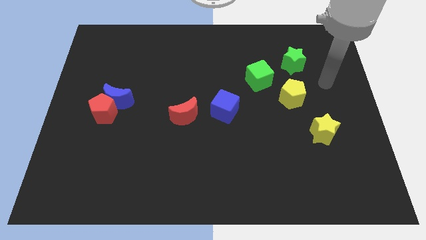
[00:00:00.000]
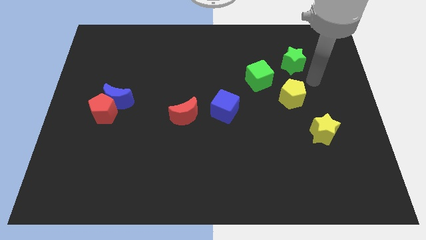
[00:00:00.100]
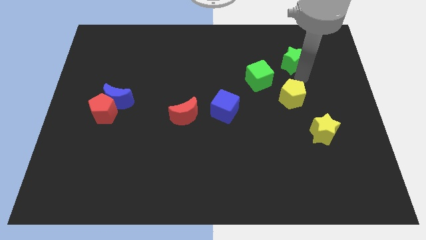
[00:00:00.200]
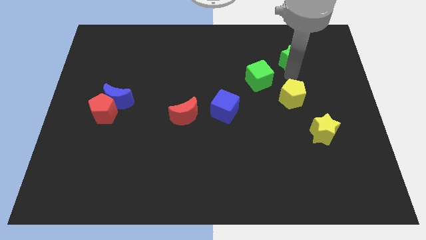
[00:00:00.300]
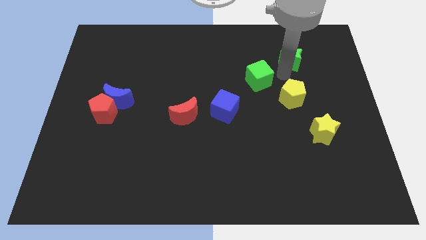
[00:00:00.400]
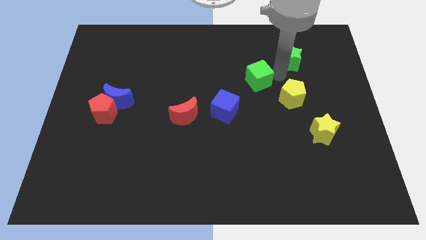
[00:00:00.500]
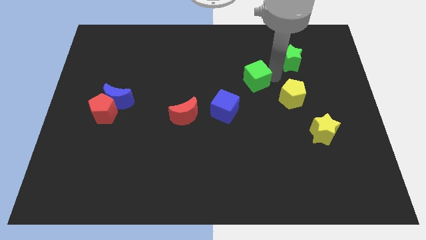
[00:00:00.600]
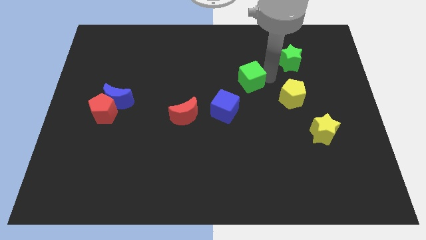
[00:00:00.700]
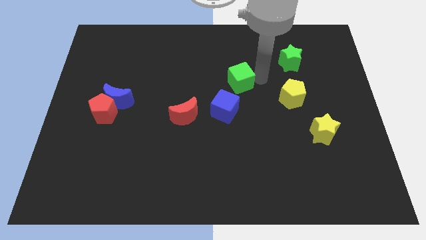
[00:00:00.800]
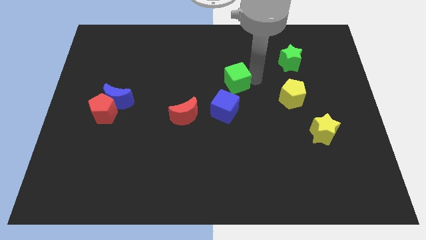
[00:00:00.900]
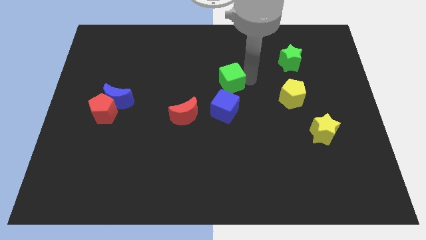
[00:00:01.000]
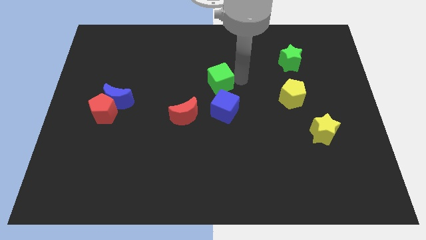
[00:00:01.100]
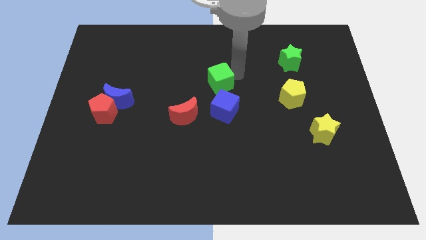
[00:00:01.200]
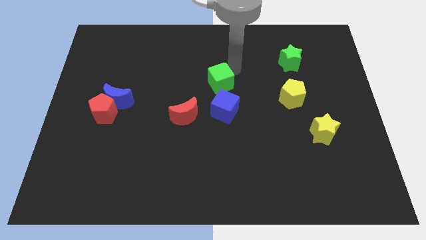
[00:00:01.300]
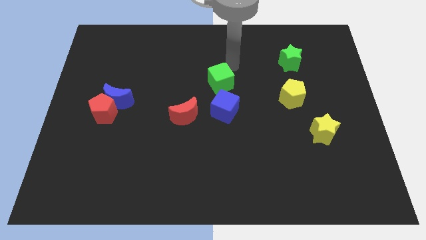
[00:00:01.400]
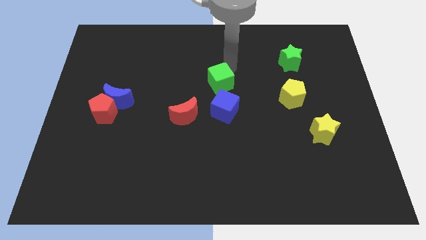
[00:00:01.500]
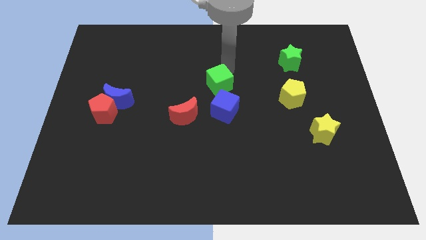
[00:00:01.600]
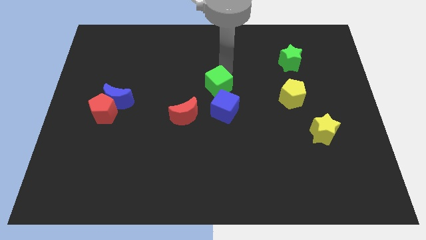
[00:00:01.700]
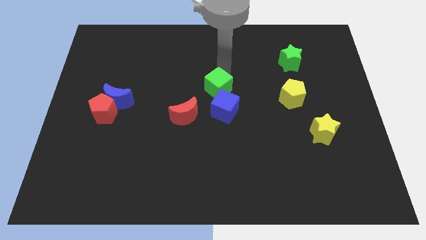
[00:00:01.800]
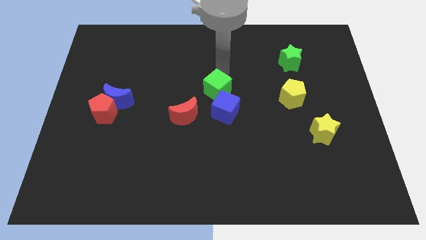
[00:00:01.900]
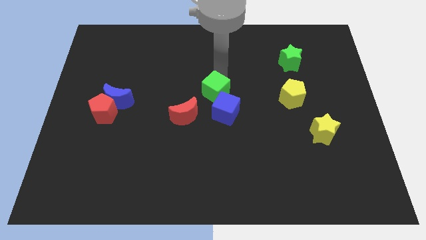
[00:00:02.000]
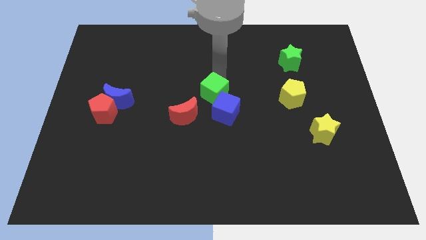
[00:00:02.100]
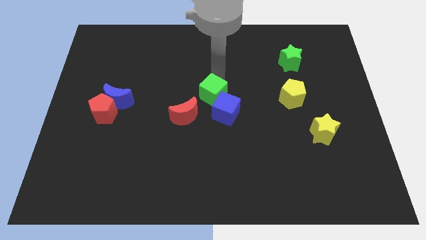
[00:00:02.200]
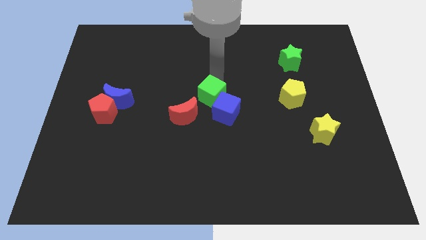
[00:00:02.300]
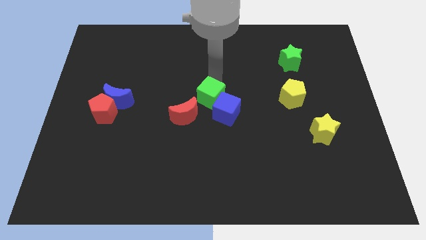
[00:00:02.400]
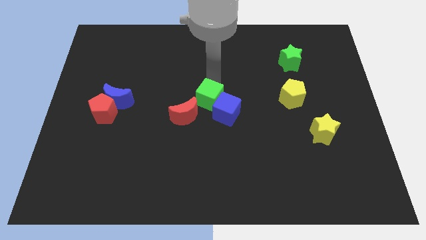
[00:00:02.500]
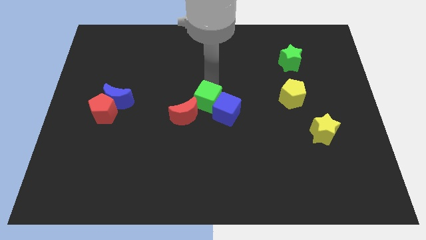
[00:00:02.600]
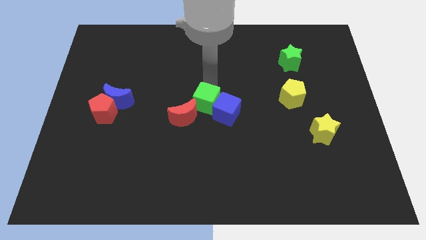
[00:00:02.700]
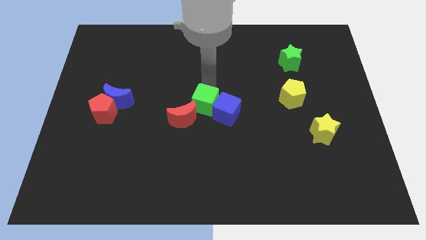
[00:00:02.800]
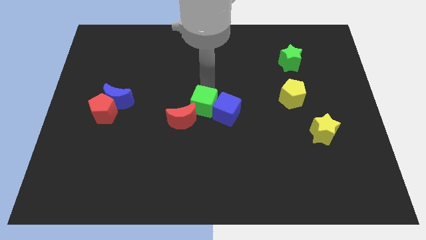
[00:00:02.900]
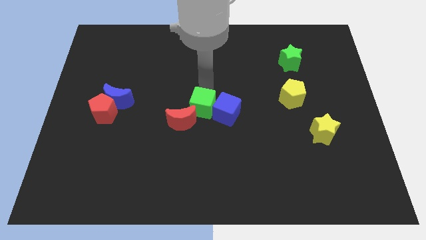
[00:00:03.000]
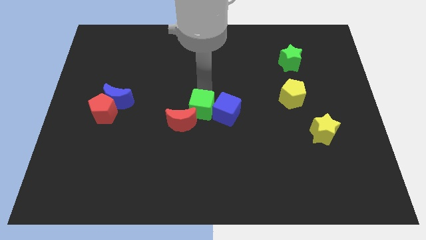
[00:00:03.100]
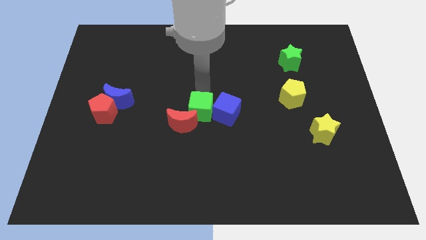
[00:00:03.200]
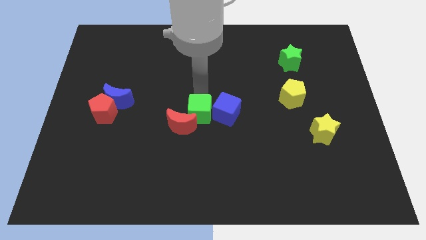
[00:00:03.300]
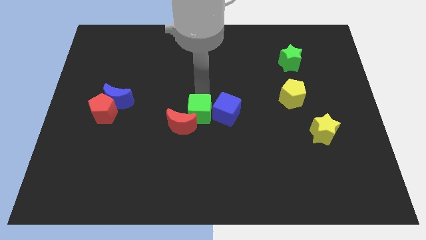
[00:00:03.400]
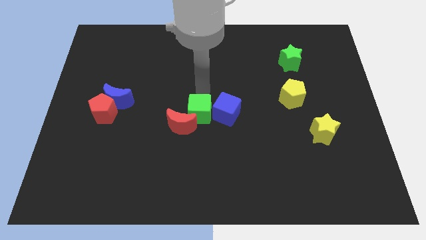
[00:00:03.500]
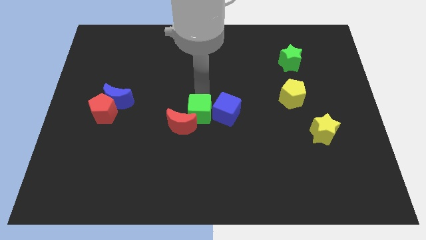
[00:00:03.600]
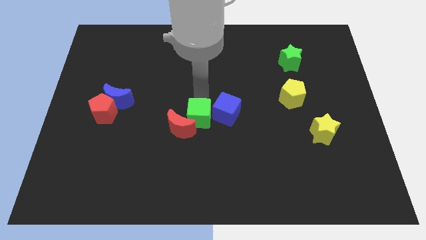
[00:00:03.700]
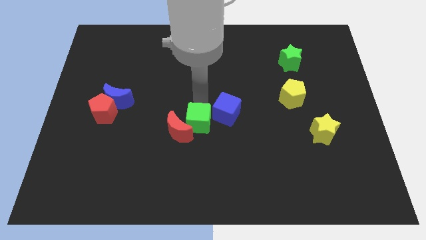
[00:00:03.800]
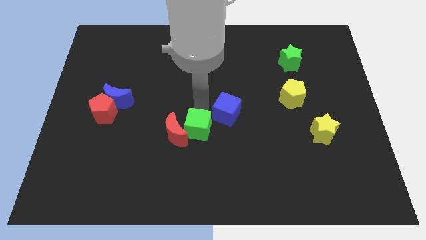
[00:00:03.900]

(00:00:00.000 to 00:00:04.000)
move the green cube diagonally downwards and left

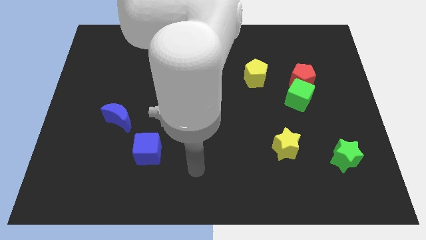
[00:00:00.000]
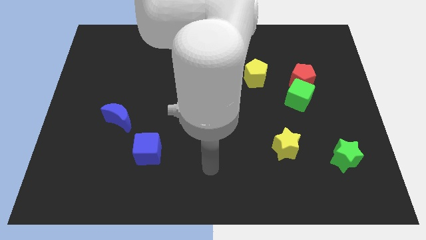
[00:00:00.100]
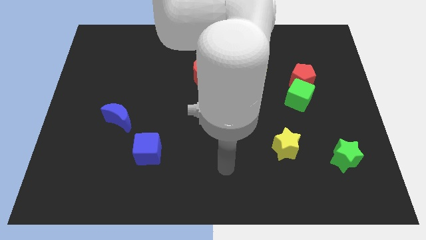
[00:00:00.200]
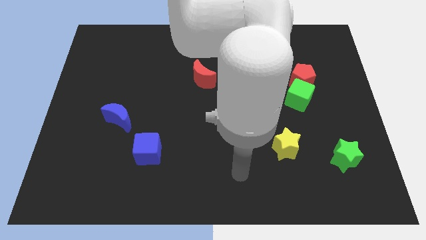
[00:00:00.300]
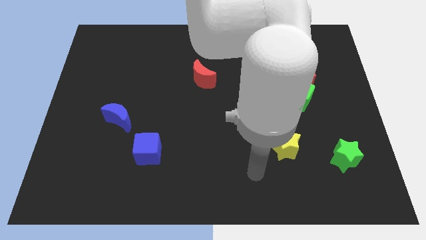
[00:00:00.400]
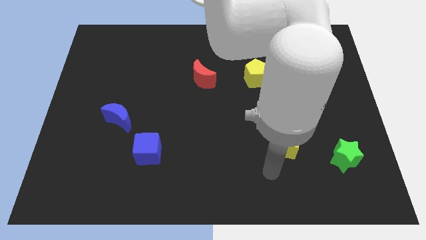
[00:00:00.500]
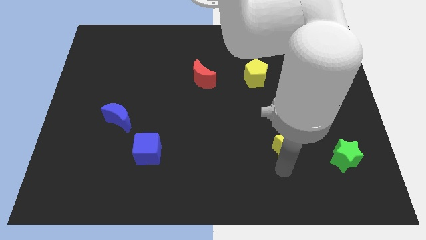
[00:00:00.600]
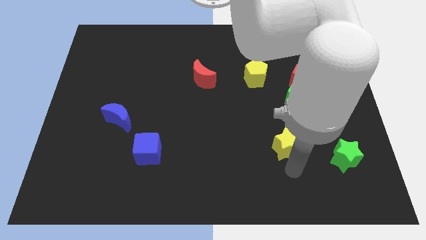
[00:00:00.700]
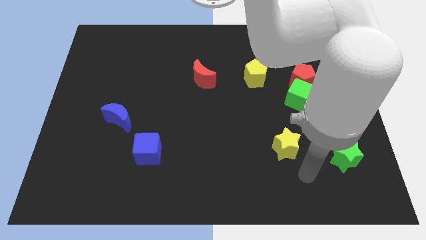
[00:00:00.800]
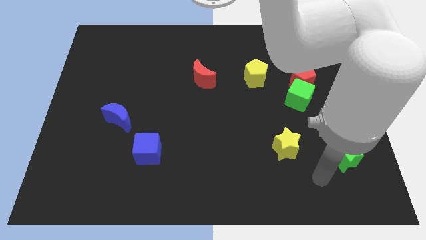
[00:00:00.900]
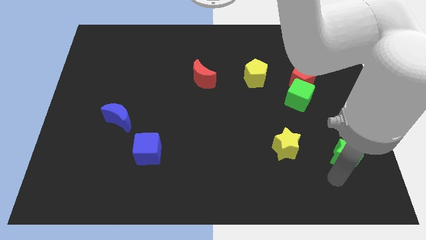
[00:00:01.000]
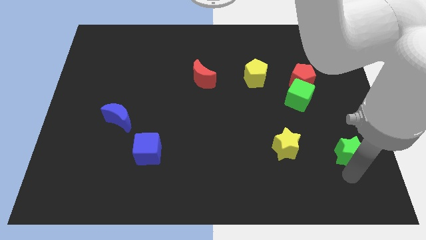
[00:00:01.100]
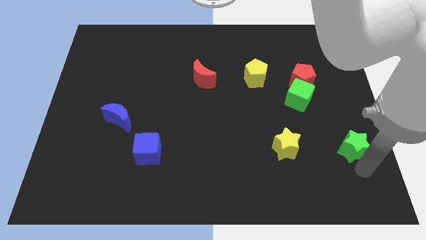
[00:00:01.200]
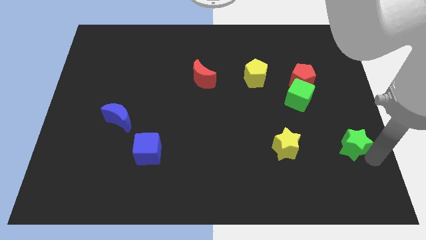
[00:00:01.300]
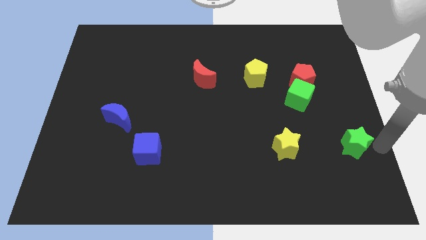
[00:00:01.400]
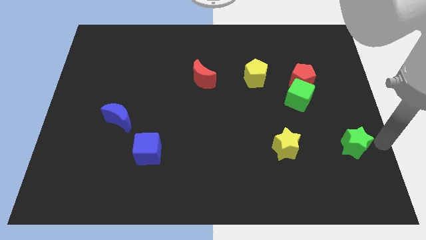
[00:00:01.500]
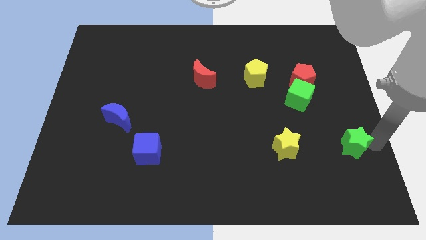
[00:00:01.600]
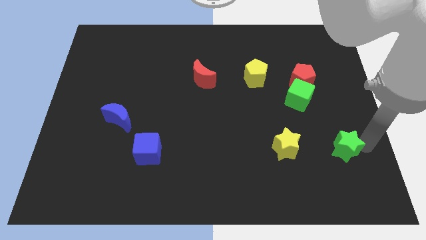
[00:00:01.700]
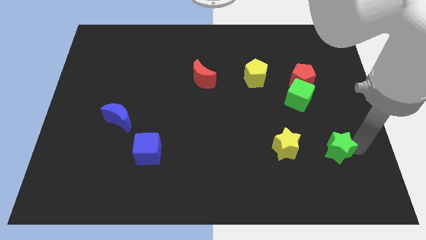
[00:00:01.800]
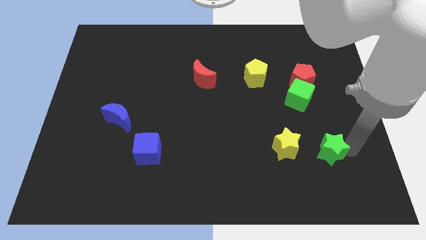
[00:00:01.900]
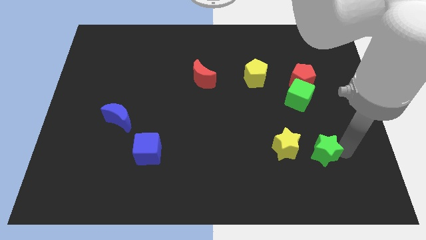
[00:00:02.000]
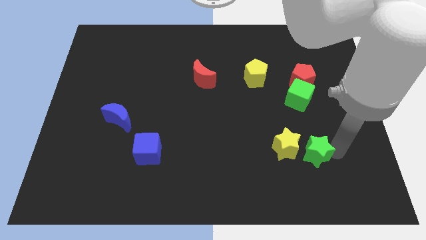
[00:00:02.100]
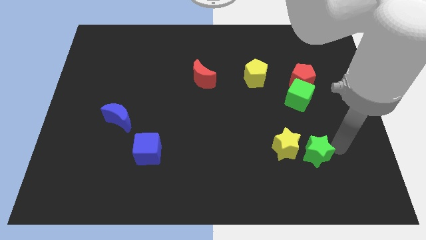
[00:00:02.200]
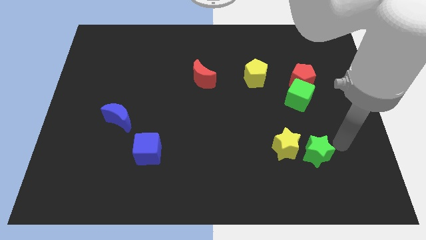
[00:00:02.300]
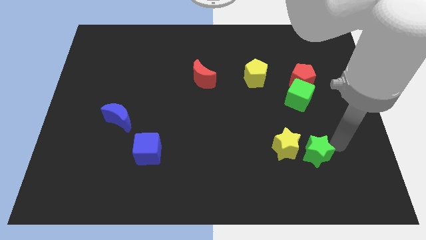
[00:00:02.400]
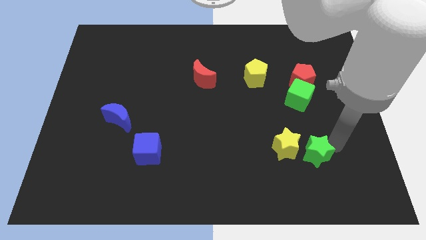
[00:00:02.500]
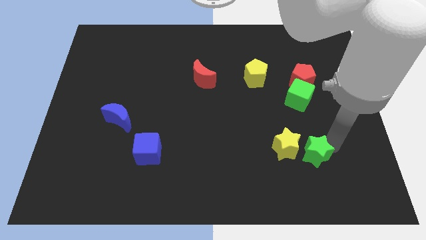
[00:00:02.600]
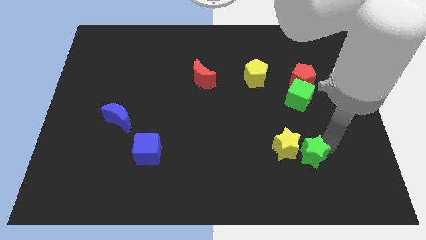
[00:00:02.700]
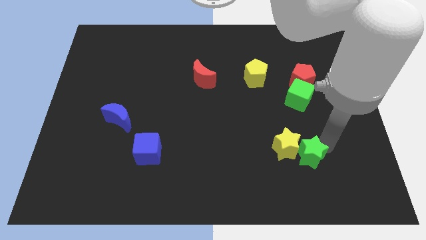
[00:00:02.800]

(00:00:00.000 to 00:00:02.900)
slightly move the green star left

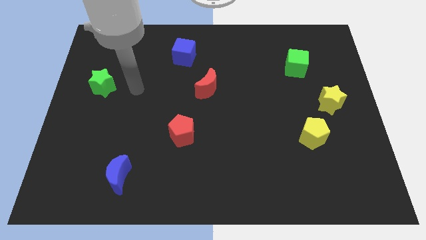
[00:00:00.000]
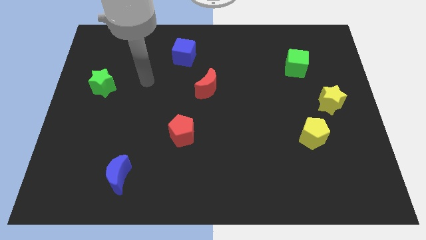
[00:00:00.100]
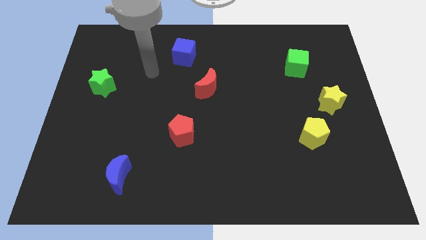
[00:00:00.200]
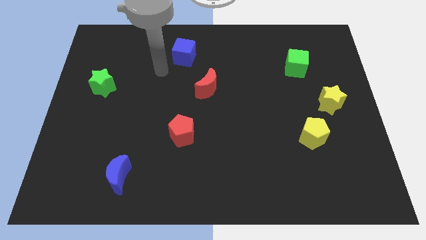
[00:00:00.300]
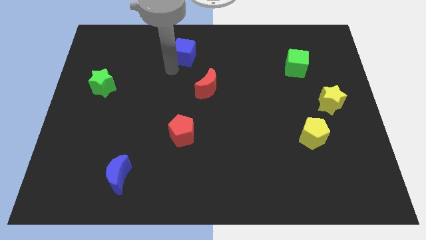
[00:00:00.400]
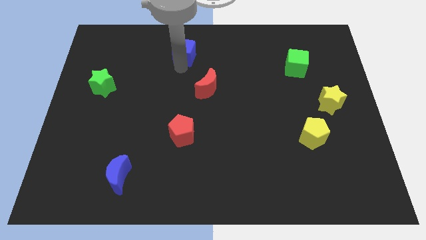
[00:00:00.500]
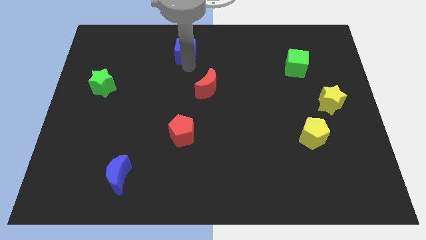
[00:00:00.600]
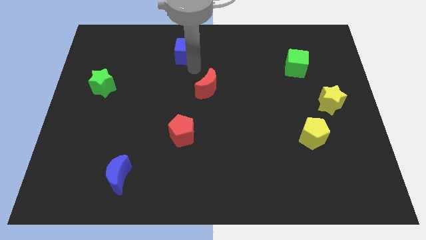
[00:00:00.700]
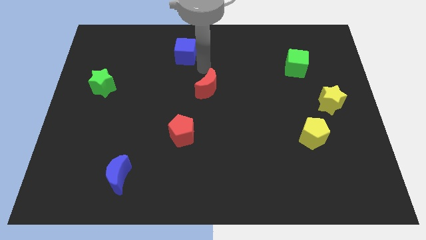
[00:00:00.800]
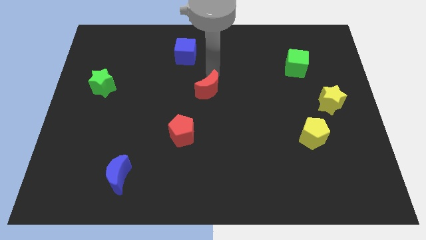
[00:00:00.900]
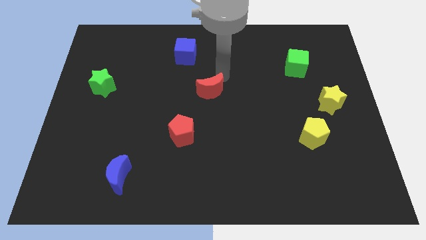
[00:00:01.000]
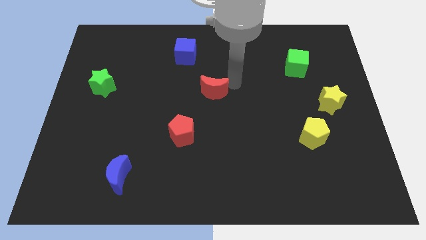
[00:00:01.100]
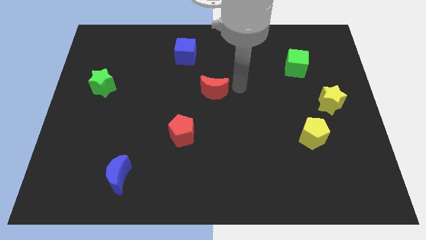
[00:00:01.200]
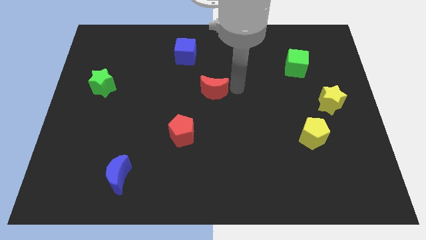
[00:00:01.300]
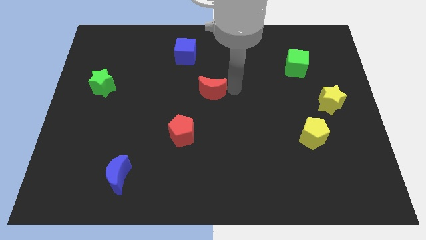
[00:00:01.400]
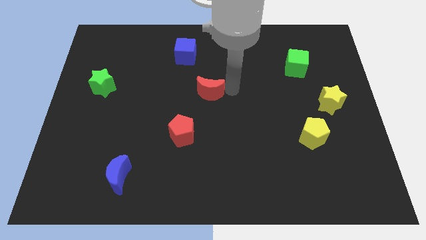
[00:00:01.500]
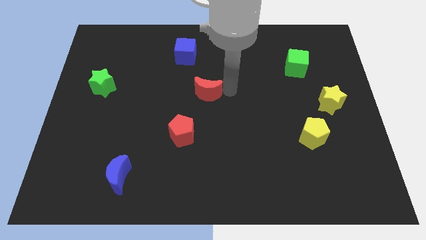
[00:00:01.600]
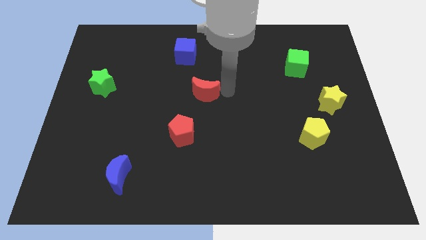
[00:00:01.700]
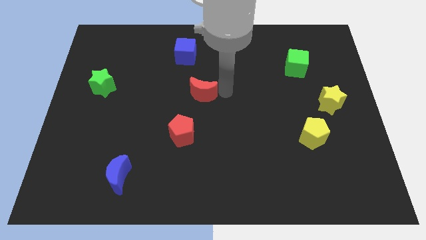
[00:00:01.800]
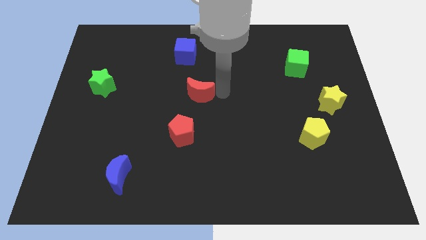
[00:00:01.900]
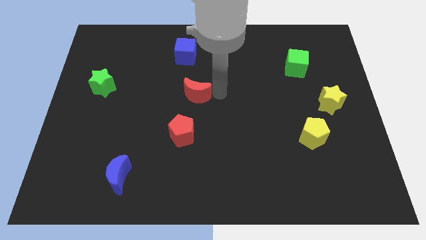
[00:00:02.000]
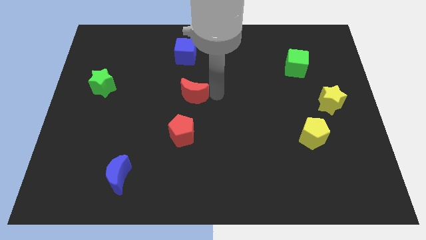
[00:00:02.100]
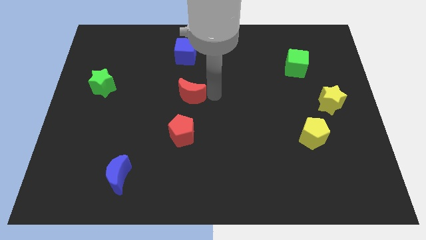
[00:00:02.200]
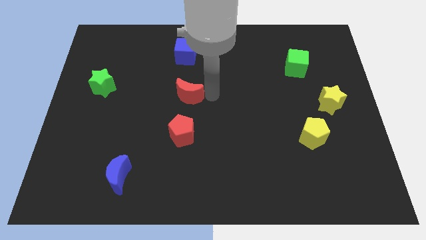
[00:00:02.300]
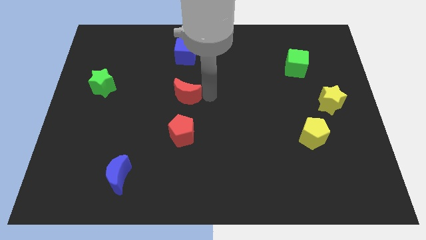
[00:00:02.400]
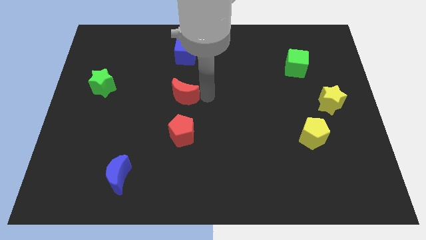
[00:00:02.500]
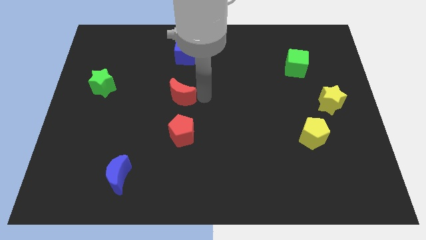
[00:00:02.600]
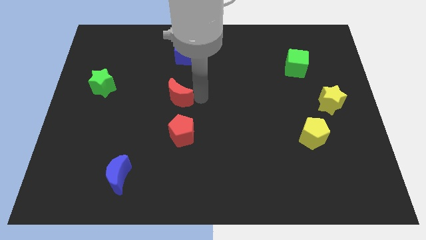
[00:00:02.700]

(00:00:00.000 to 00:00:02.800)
slightly move the red moon down and then left
